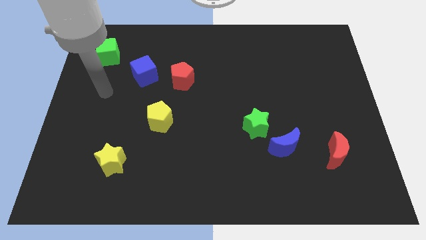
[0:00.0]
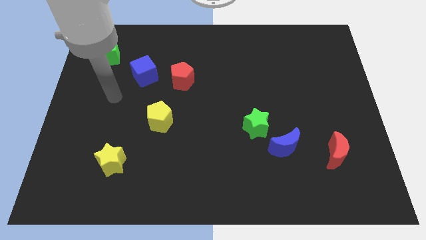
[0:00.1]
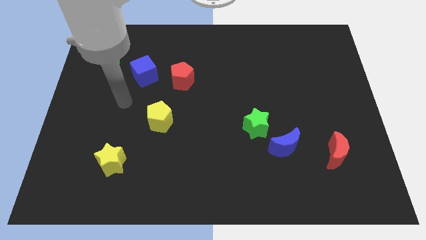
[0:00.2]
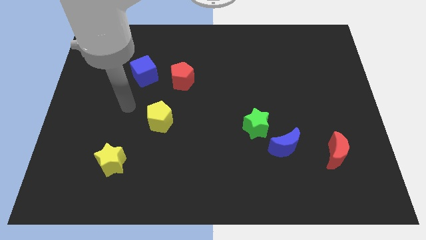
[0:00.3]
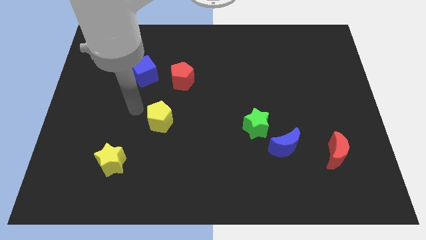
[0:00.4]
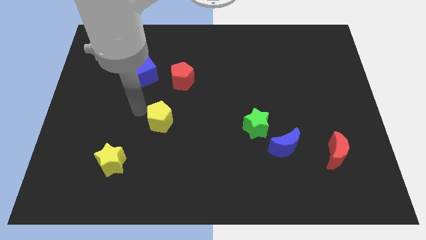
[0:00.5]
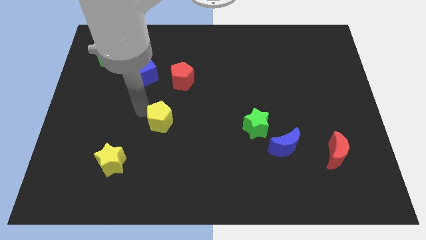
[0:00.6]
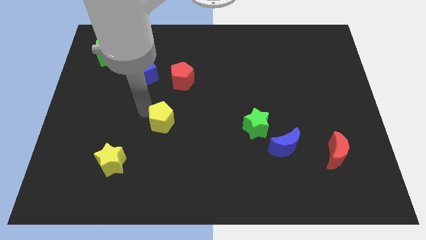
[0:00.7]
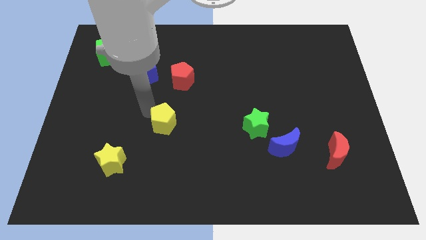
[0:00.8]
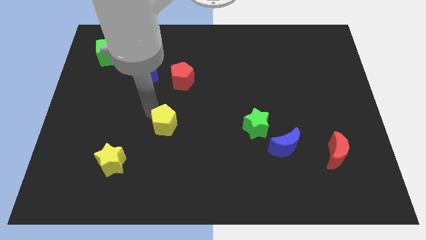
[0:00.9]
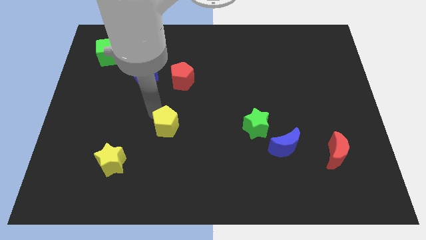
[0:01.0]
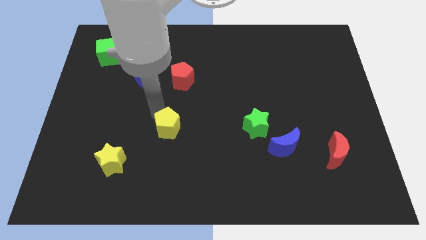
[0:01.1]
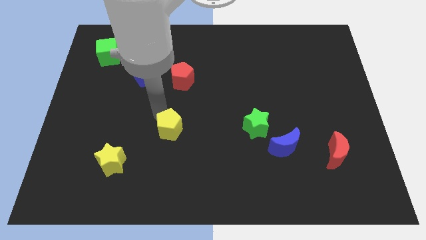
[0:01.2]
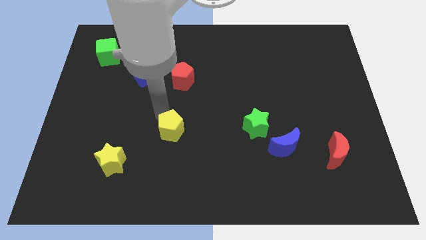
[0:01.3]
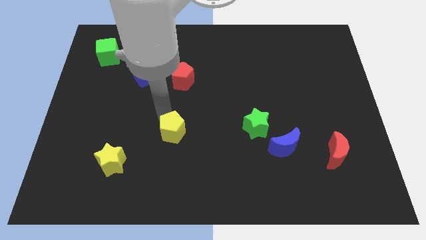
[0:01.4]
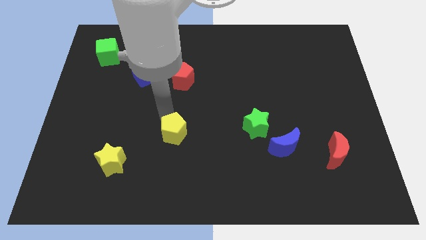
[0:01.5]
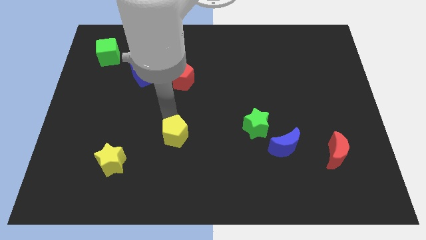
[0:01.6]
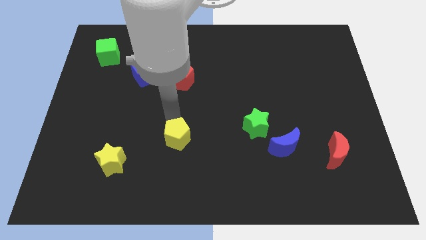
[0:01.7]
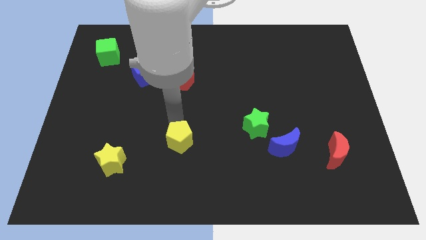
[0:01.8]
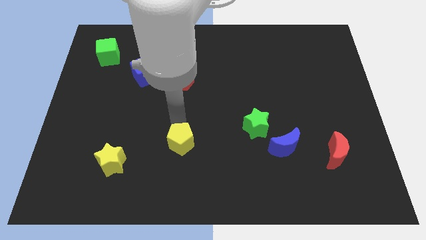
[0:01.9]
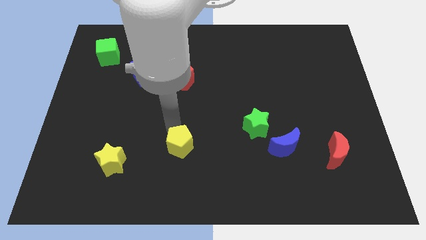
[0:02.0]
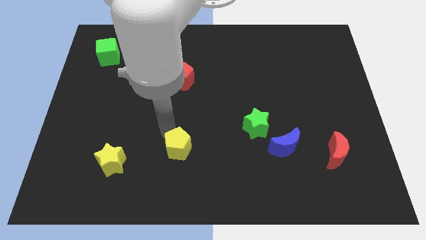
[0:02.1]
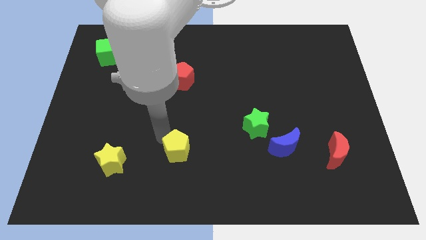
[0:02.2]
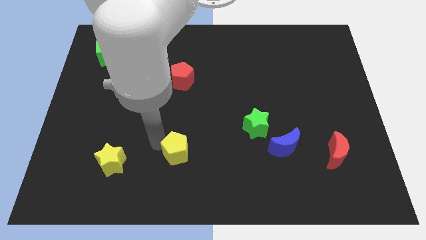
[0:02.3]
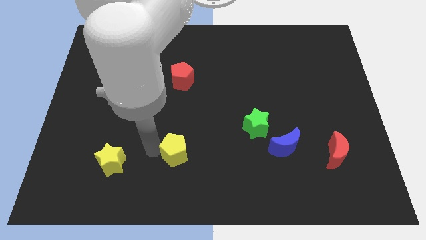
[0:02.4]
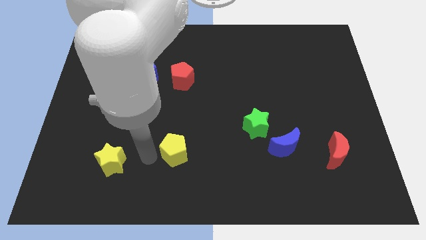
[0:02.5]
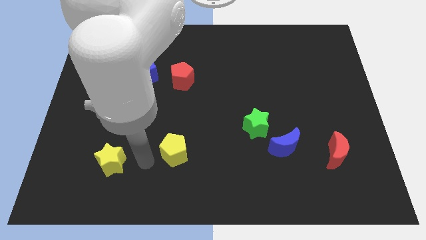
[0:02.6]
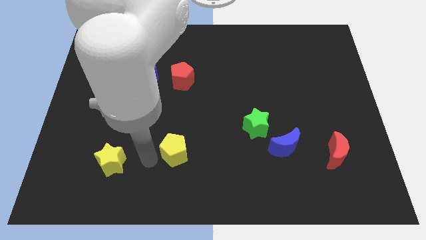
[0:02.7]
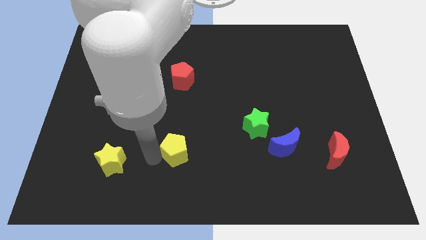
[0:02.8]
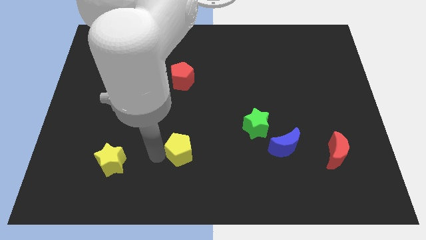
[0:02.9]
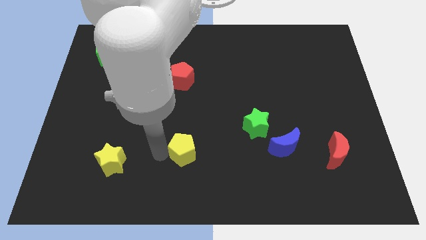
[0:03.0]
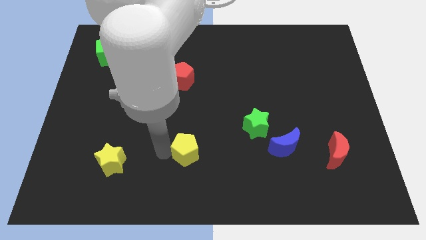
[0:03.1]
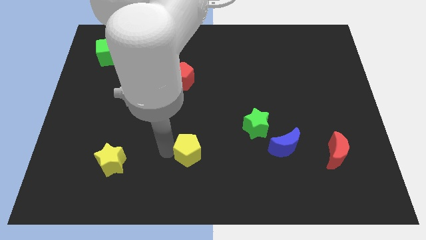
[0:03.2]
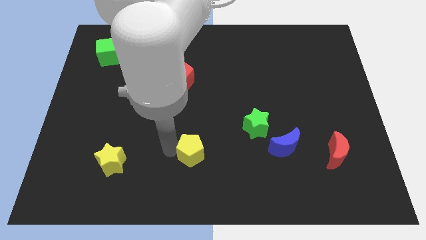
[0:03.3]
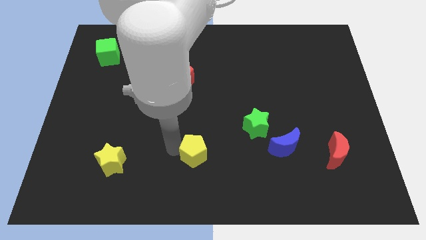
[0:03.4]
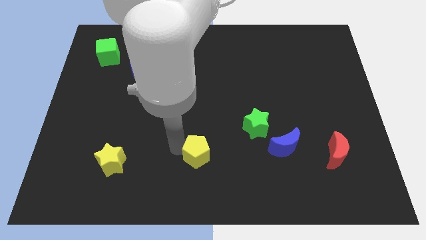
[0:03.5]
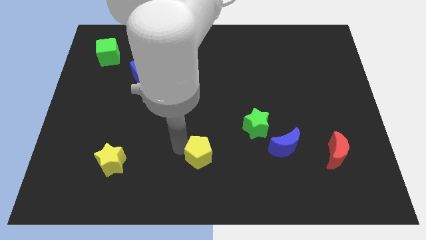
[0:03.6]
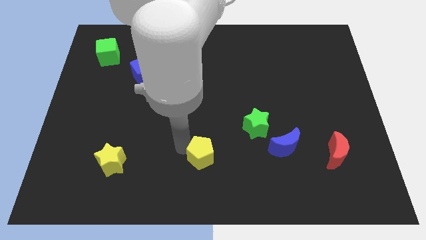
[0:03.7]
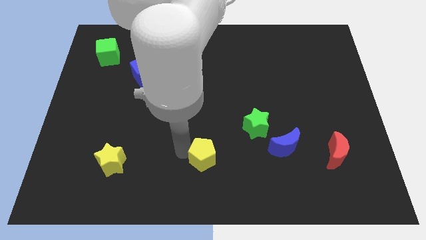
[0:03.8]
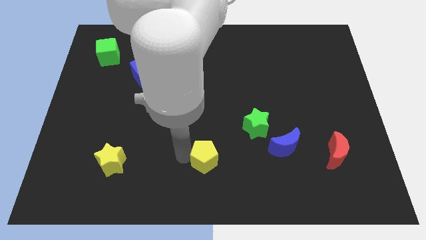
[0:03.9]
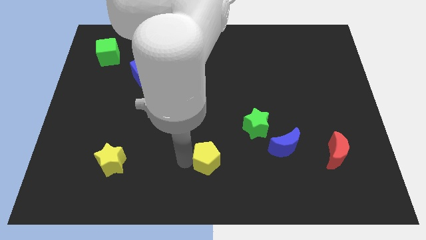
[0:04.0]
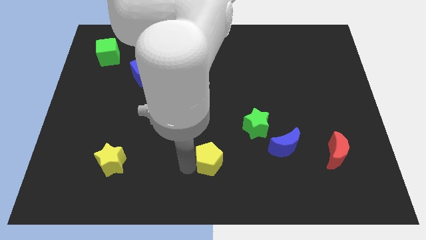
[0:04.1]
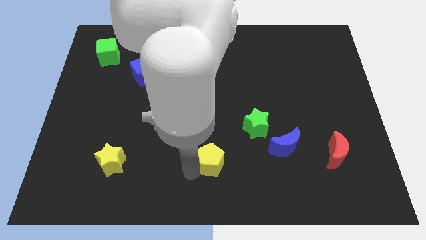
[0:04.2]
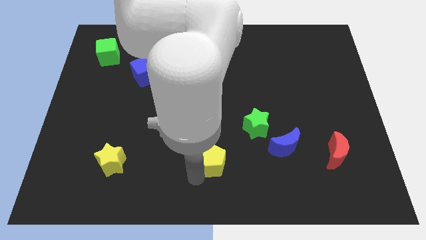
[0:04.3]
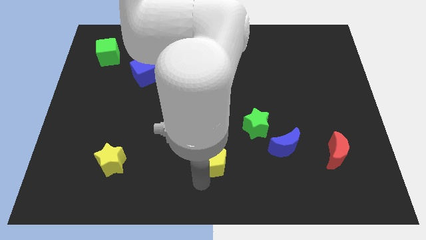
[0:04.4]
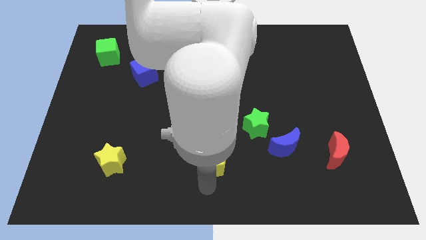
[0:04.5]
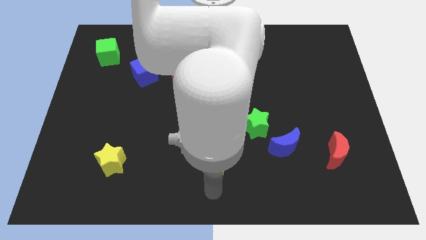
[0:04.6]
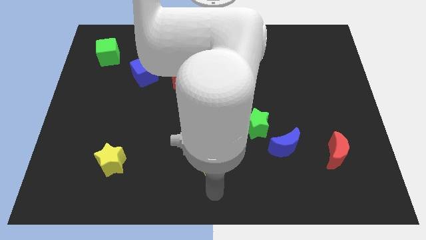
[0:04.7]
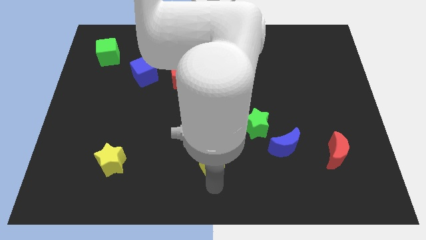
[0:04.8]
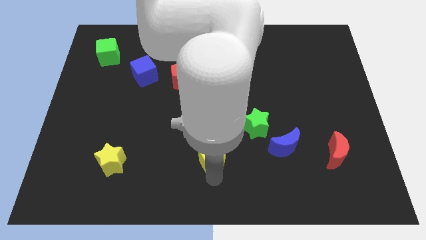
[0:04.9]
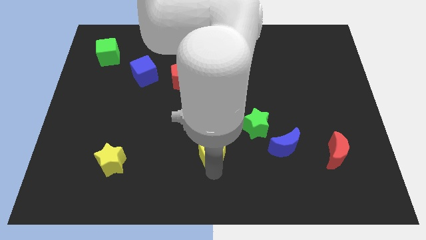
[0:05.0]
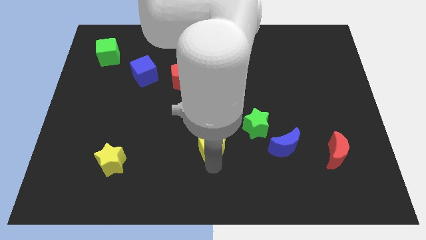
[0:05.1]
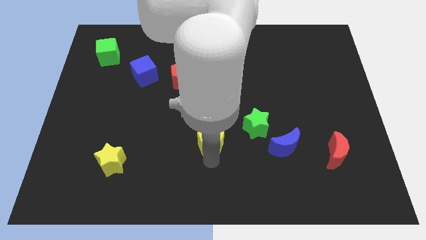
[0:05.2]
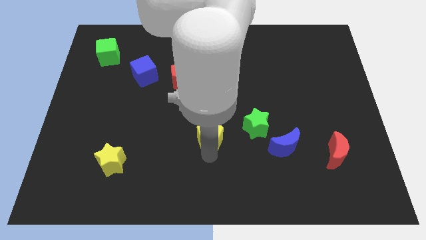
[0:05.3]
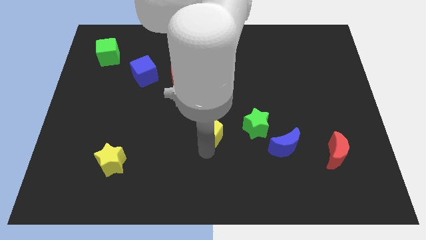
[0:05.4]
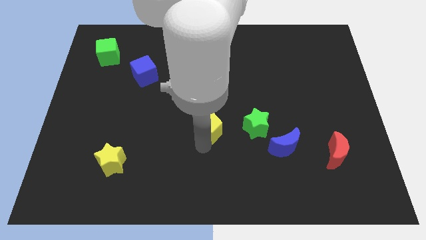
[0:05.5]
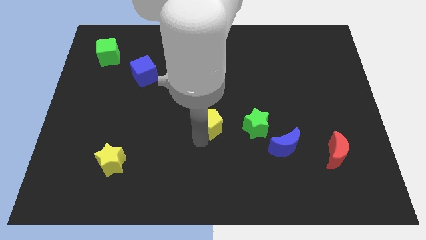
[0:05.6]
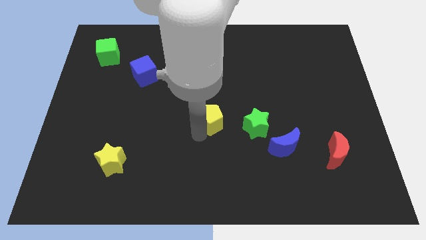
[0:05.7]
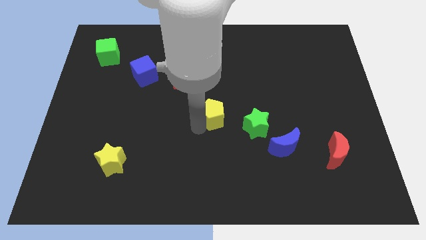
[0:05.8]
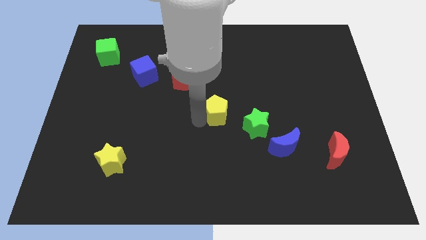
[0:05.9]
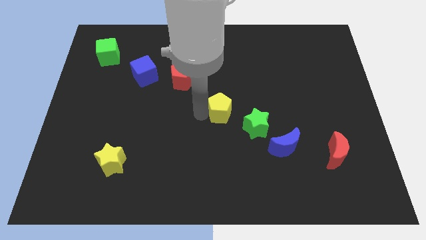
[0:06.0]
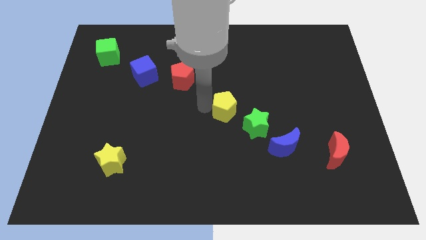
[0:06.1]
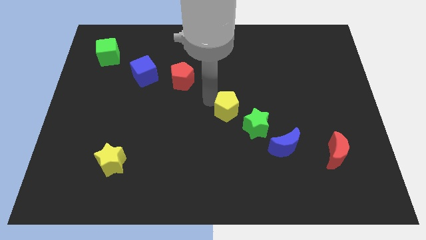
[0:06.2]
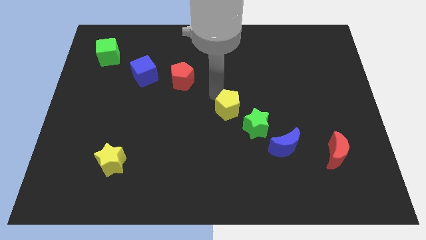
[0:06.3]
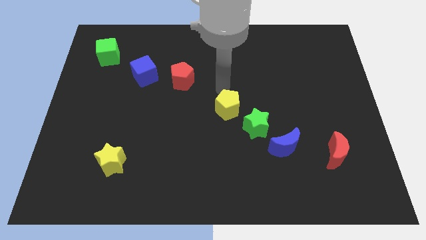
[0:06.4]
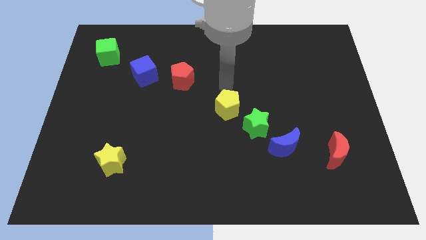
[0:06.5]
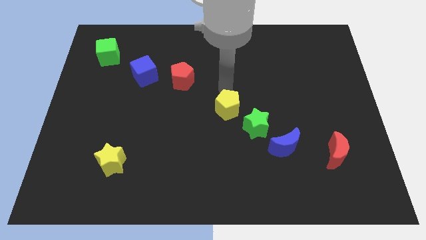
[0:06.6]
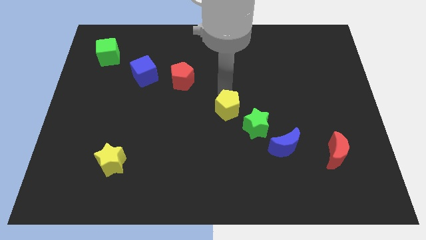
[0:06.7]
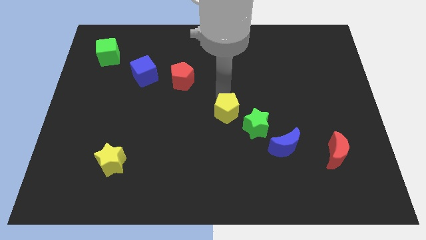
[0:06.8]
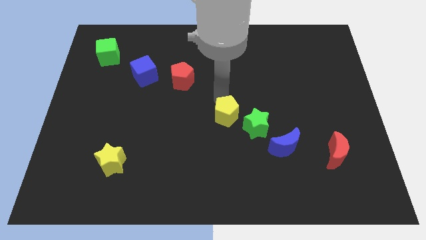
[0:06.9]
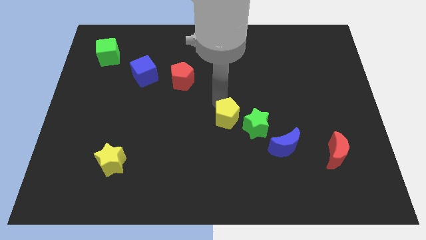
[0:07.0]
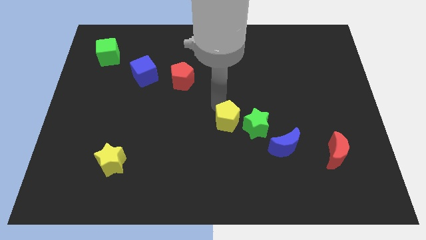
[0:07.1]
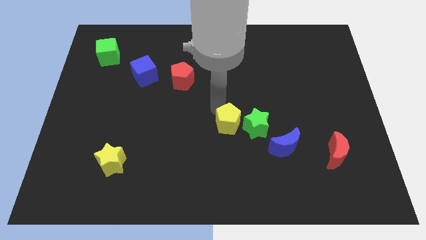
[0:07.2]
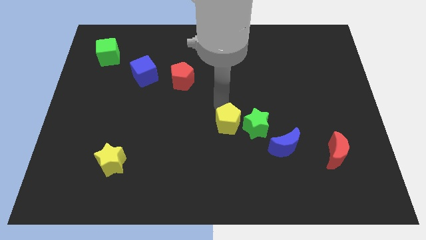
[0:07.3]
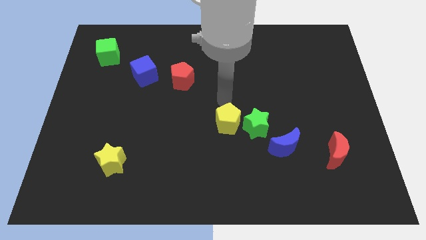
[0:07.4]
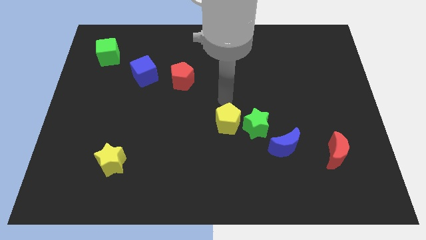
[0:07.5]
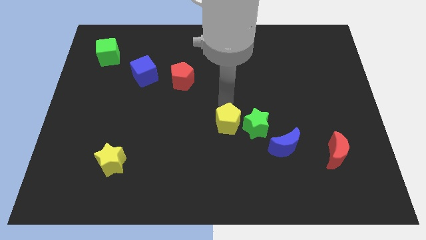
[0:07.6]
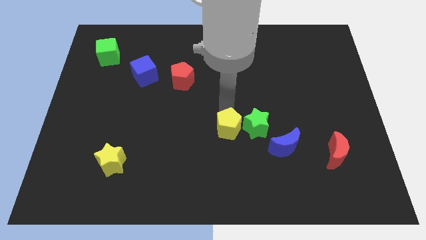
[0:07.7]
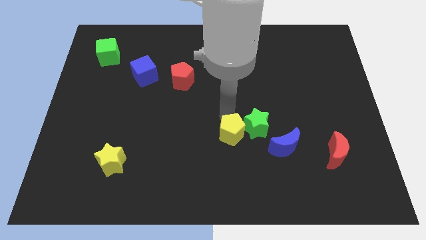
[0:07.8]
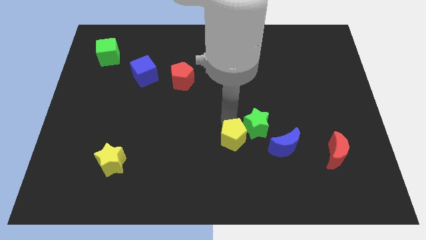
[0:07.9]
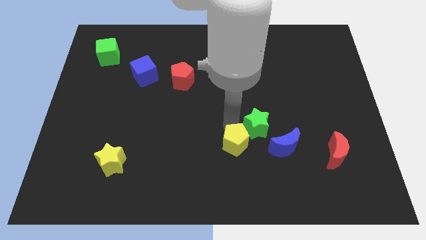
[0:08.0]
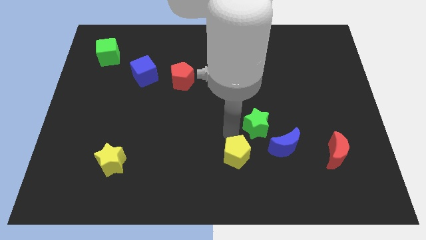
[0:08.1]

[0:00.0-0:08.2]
move the yellow pentagon to the bottom of the green star
